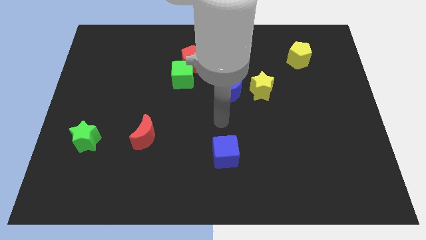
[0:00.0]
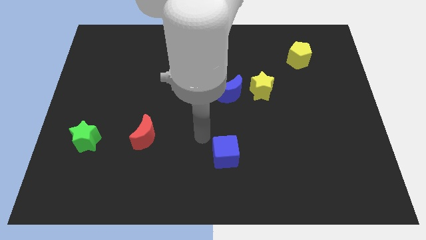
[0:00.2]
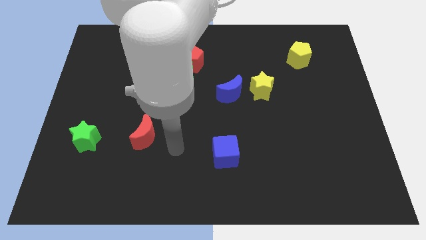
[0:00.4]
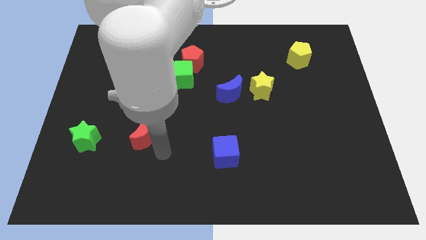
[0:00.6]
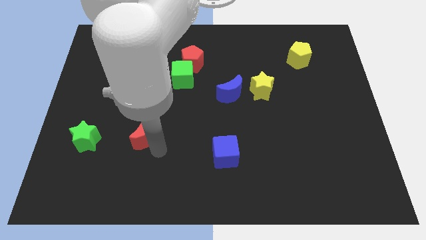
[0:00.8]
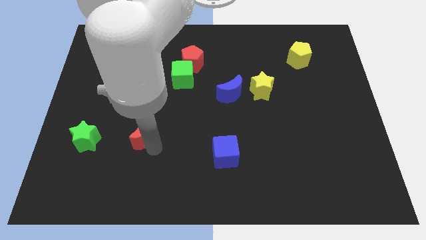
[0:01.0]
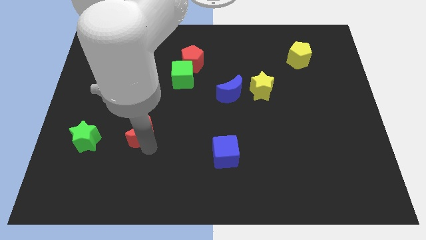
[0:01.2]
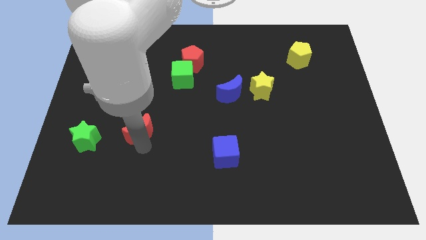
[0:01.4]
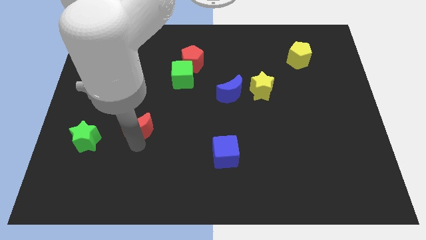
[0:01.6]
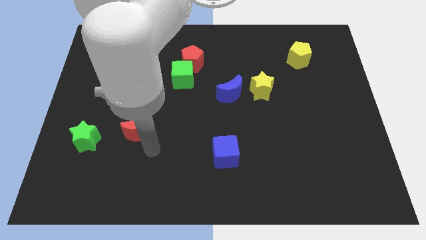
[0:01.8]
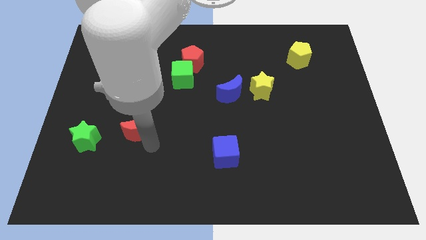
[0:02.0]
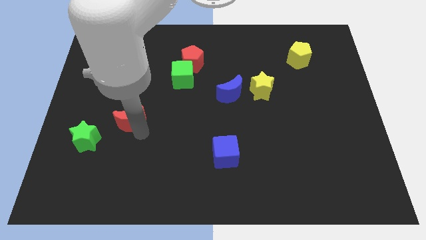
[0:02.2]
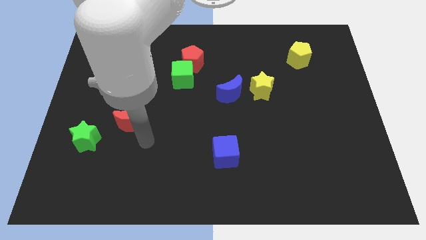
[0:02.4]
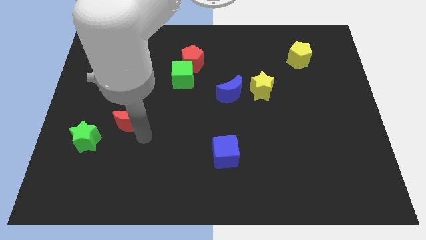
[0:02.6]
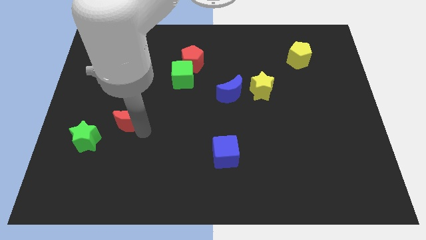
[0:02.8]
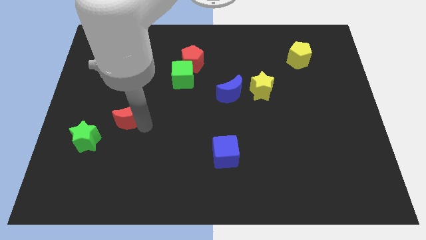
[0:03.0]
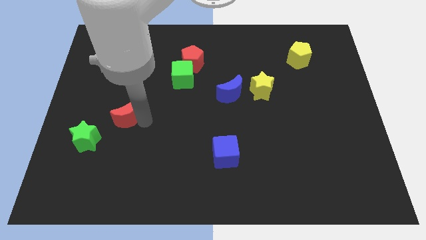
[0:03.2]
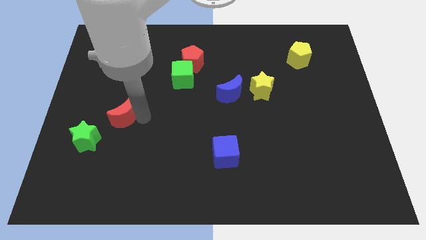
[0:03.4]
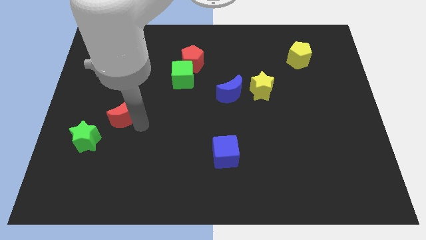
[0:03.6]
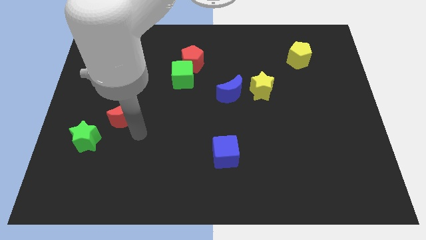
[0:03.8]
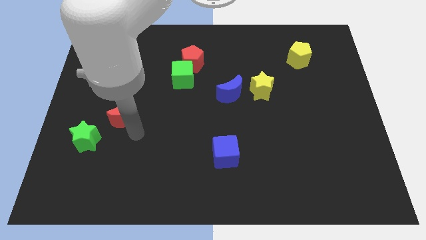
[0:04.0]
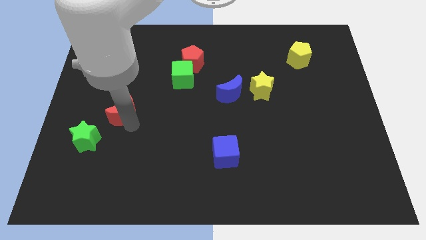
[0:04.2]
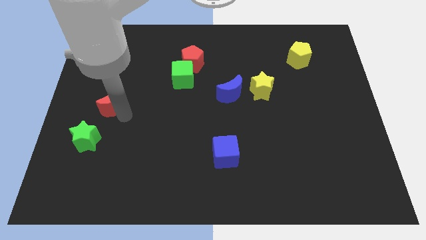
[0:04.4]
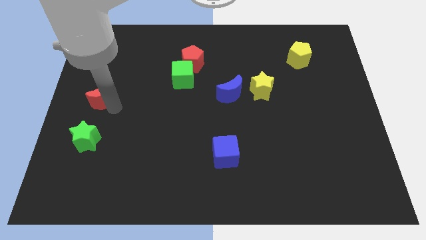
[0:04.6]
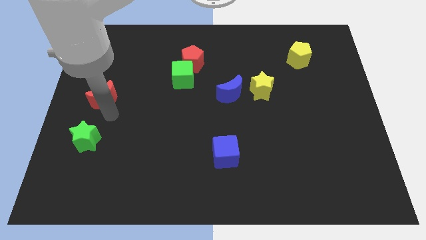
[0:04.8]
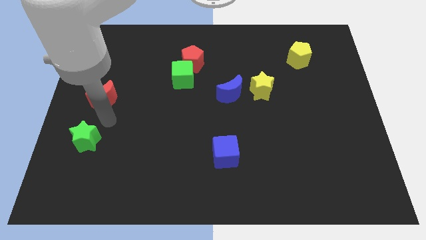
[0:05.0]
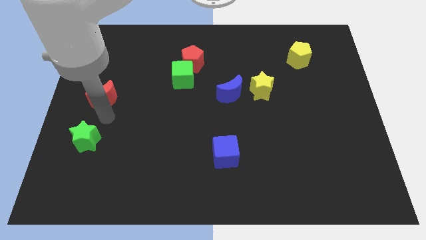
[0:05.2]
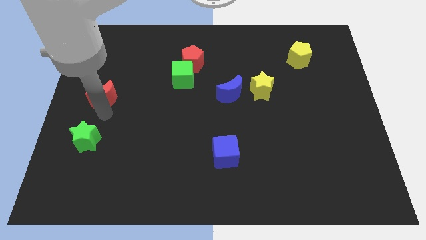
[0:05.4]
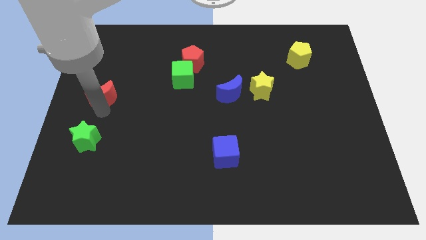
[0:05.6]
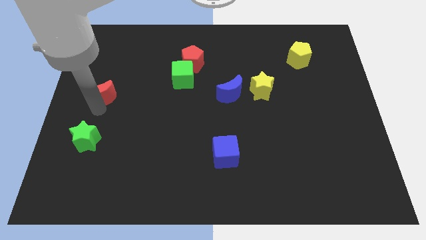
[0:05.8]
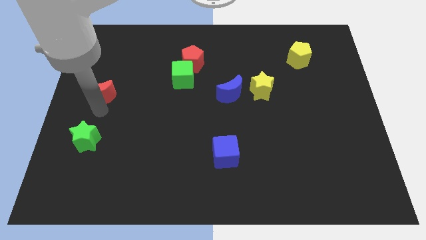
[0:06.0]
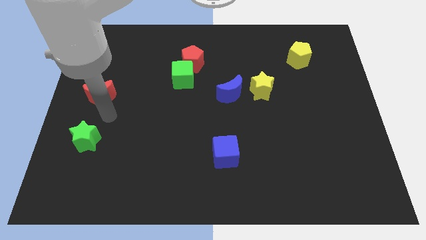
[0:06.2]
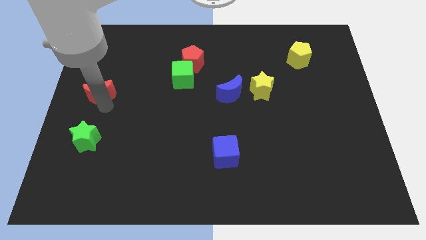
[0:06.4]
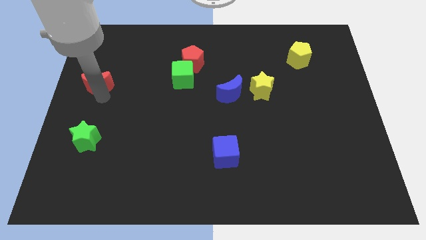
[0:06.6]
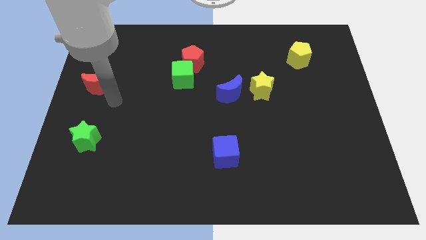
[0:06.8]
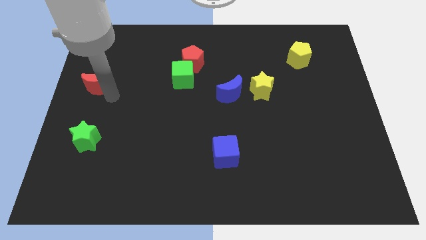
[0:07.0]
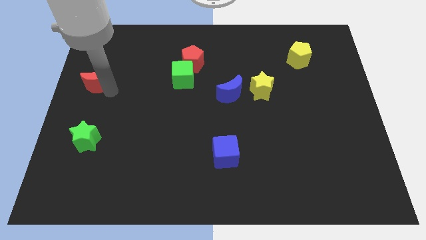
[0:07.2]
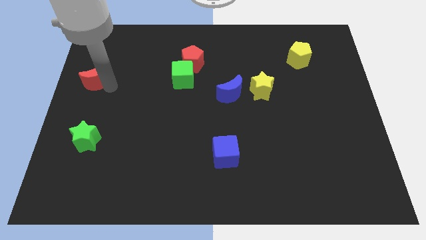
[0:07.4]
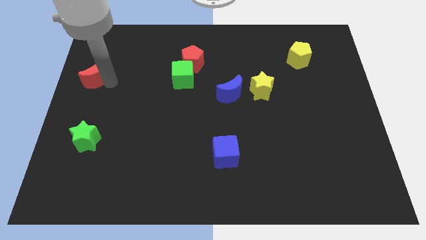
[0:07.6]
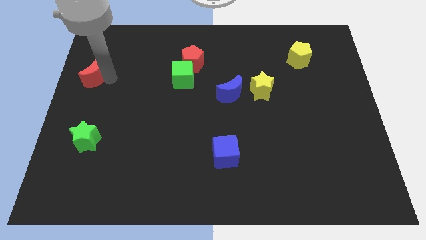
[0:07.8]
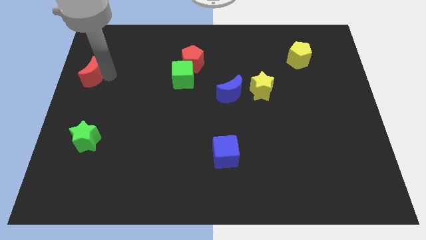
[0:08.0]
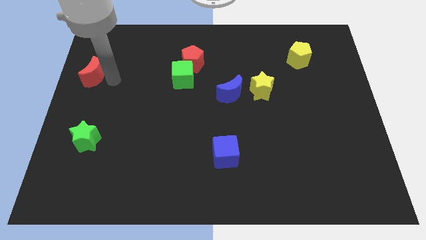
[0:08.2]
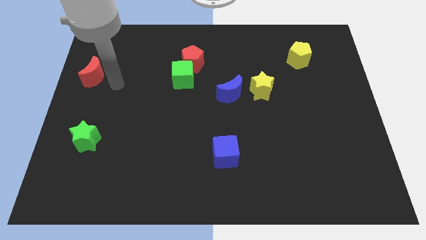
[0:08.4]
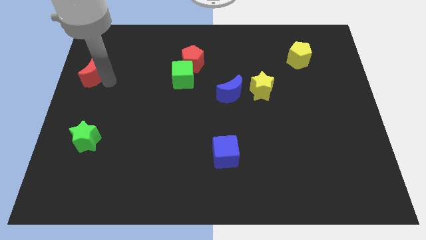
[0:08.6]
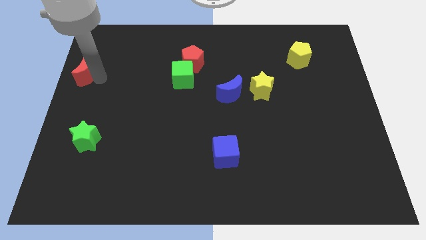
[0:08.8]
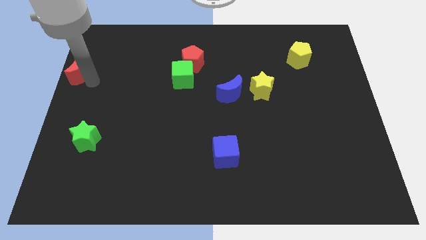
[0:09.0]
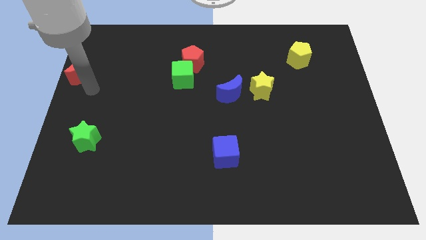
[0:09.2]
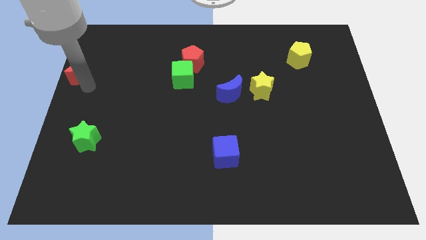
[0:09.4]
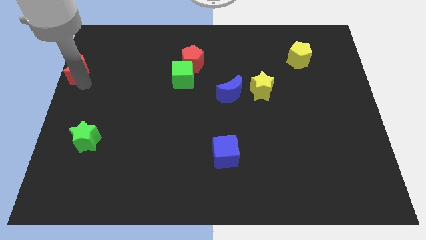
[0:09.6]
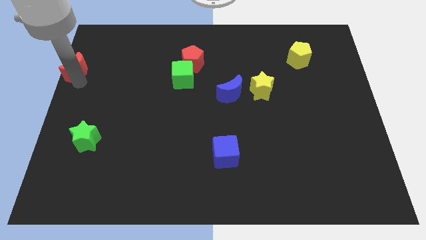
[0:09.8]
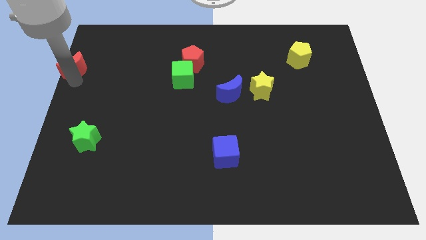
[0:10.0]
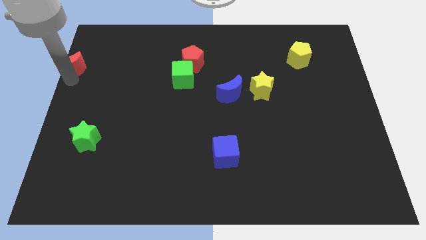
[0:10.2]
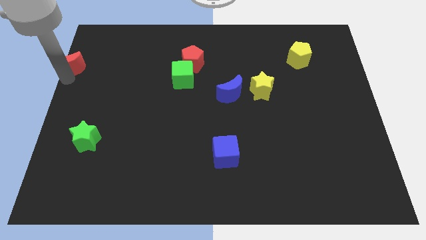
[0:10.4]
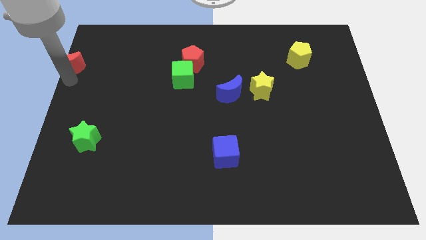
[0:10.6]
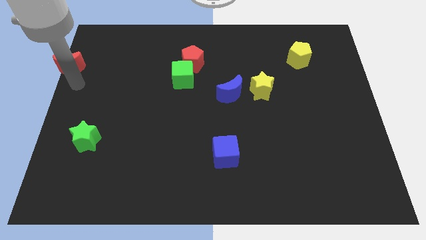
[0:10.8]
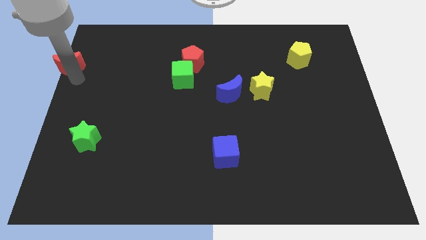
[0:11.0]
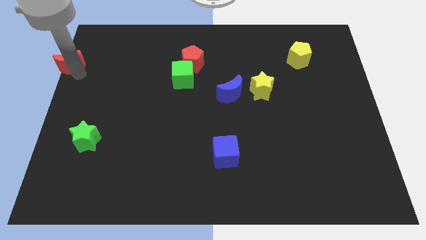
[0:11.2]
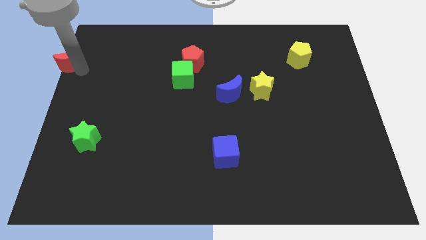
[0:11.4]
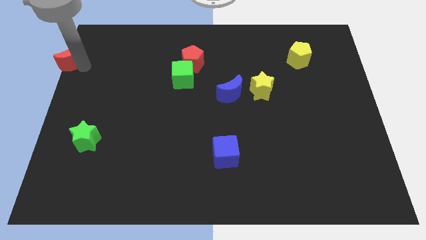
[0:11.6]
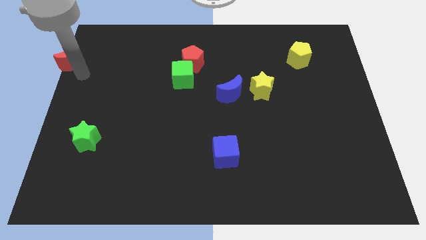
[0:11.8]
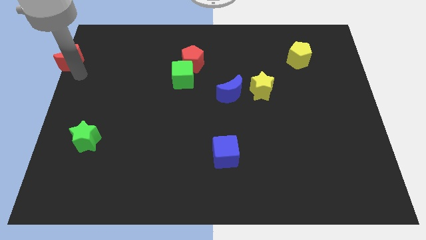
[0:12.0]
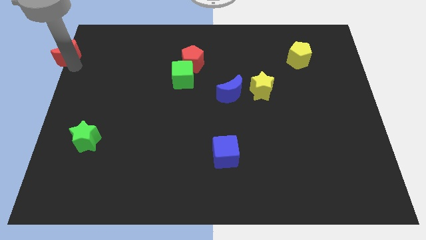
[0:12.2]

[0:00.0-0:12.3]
move the red moon to the top left corner
